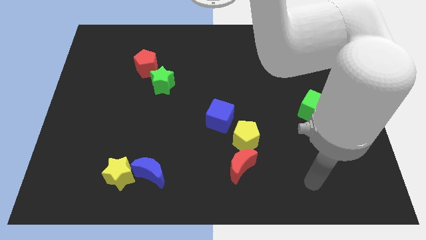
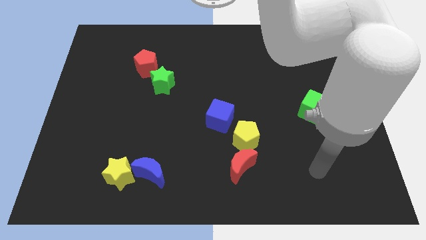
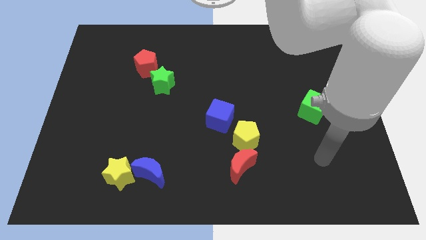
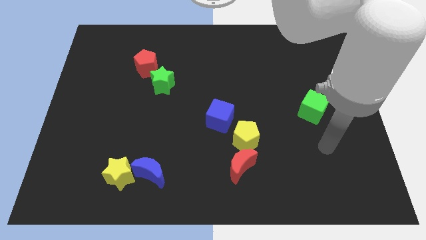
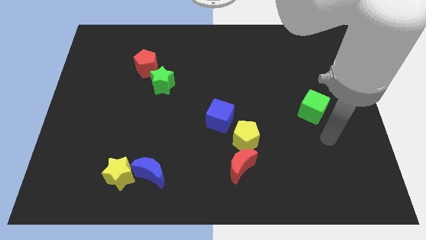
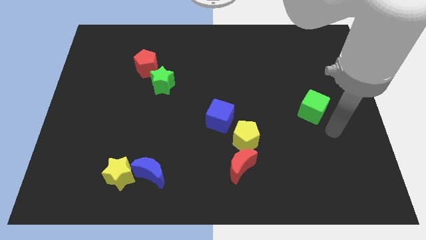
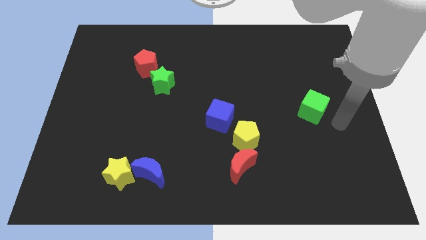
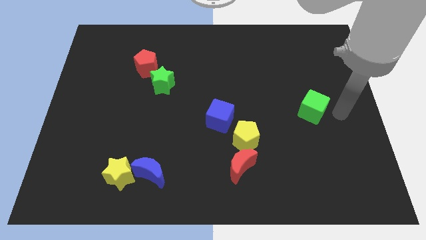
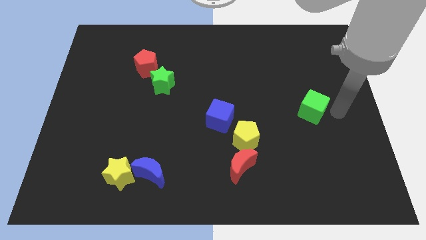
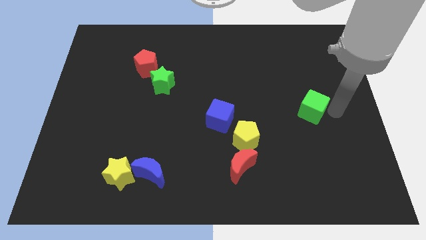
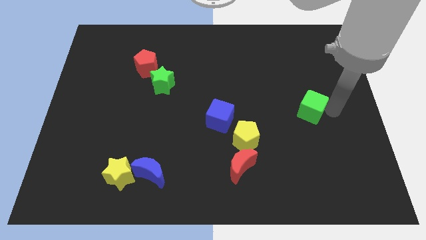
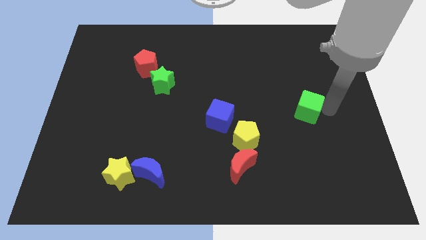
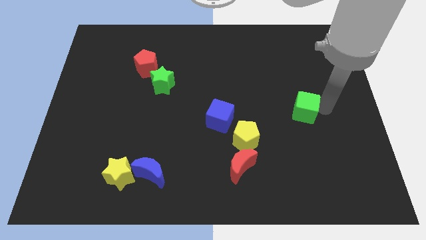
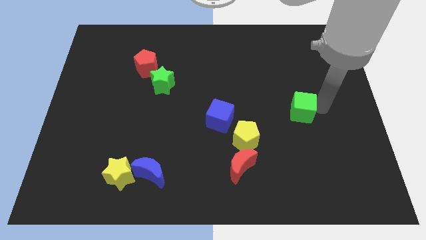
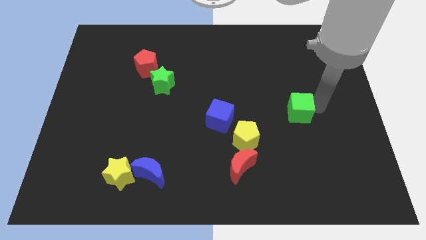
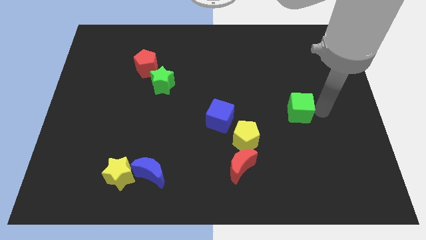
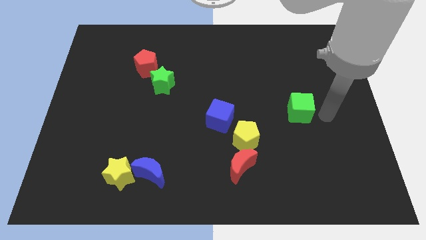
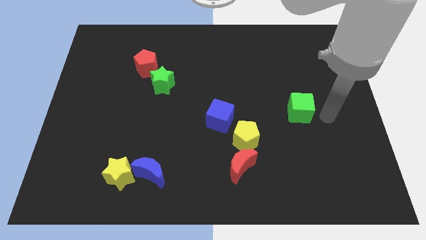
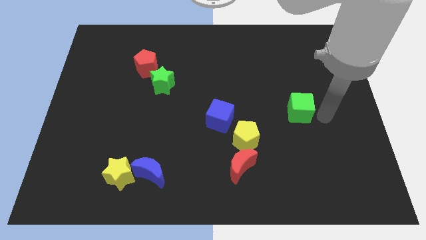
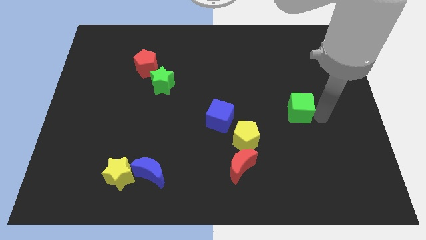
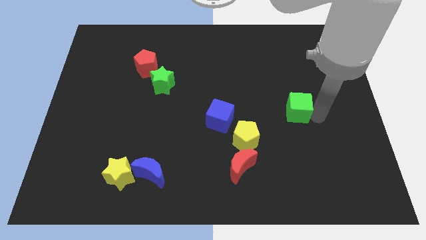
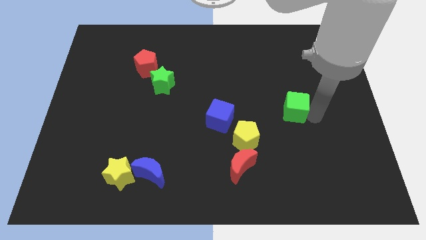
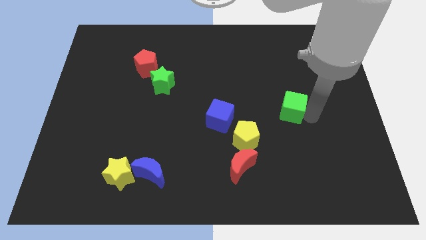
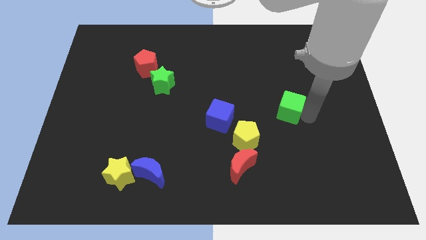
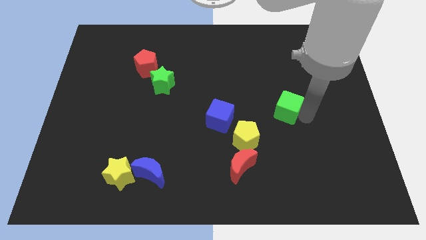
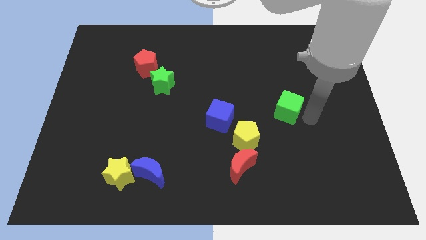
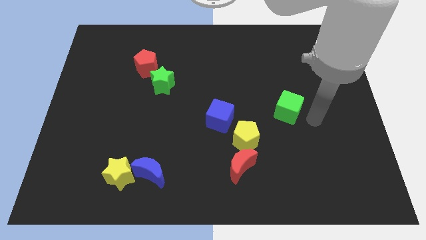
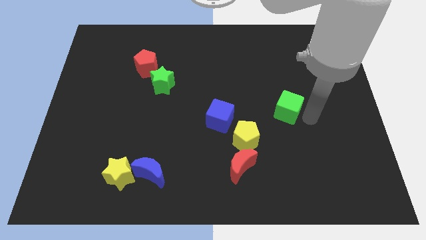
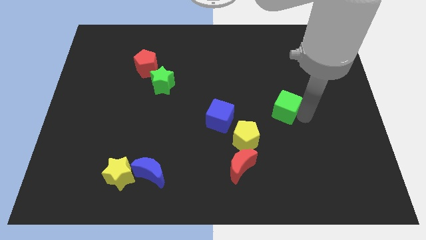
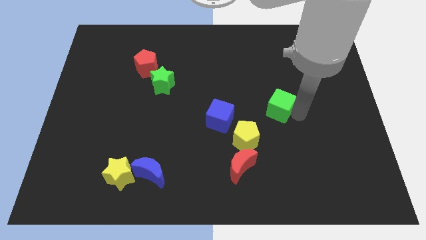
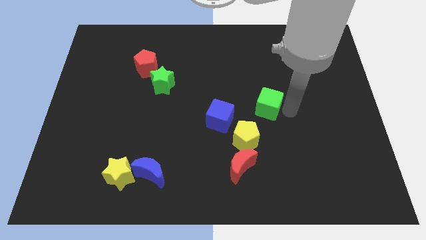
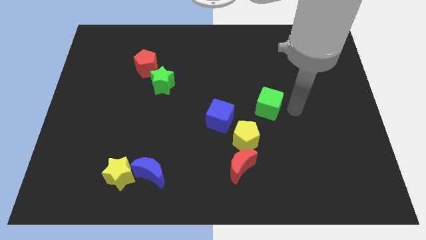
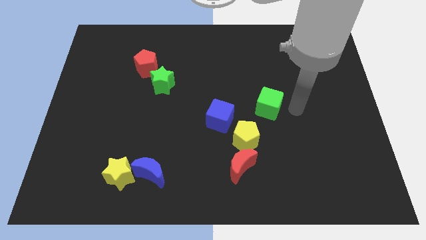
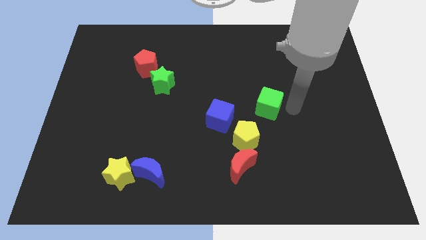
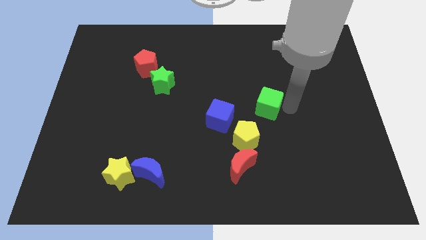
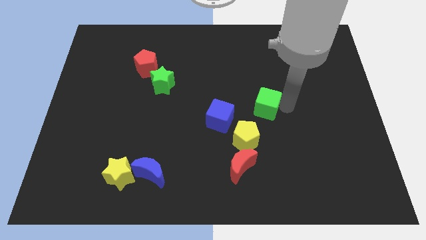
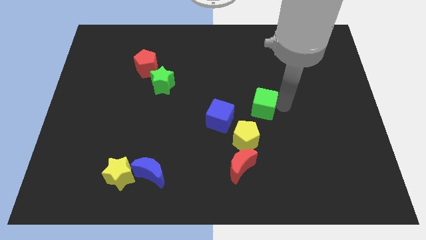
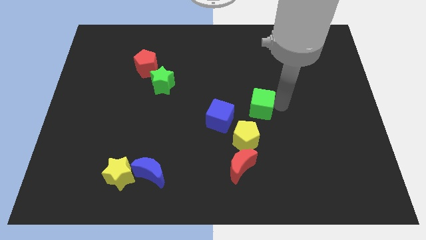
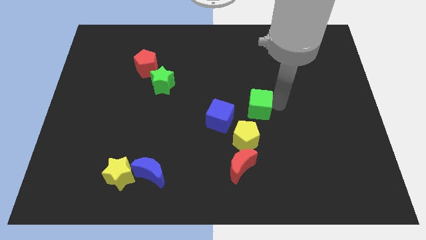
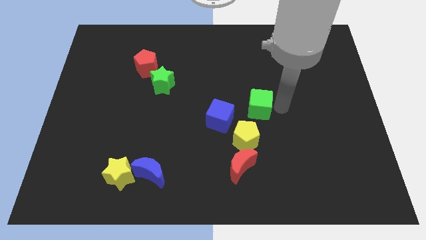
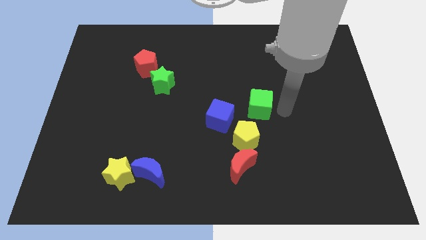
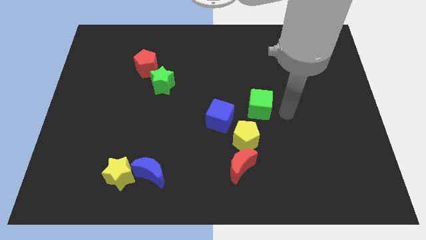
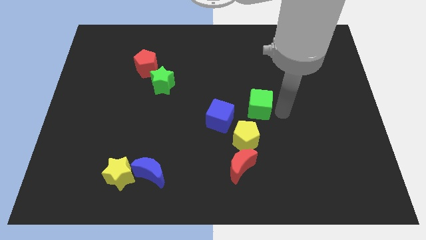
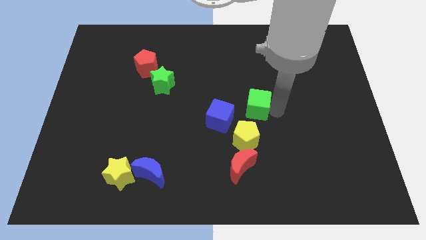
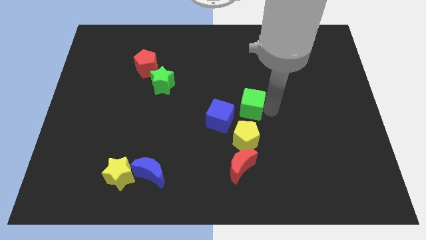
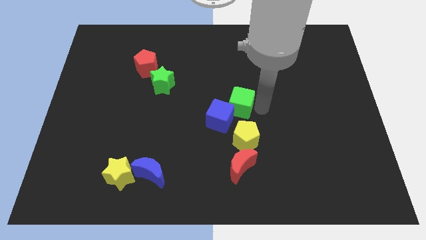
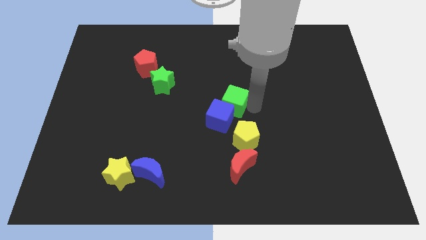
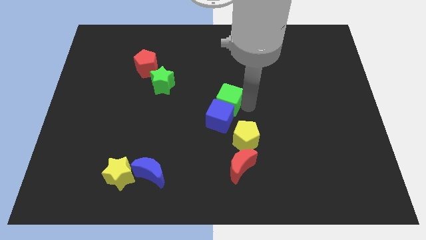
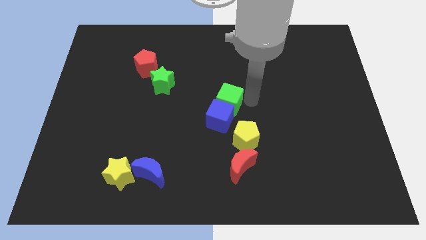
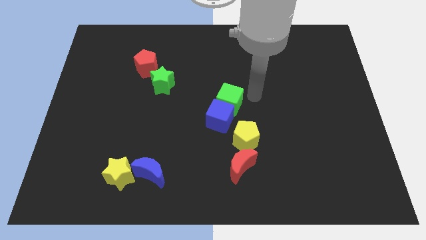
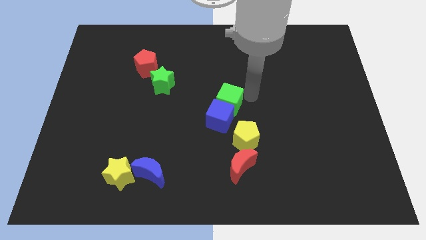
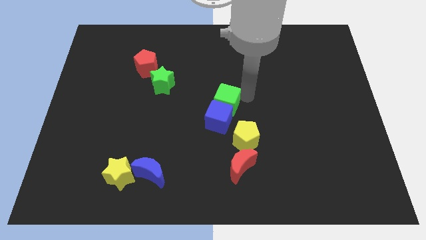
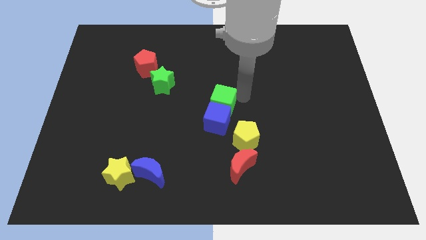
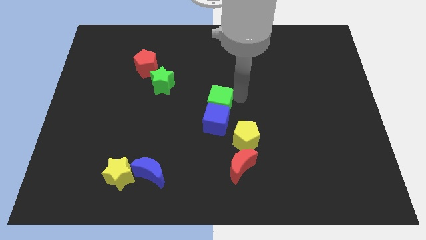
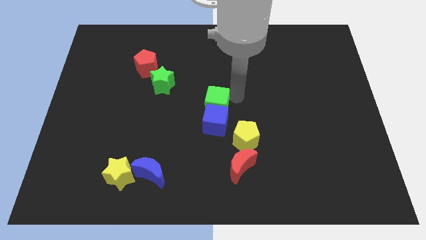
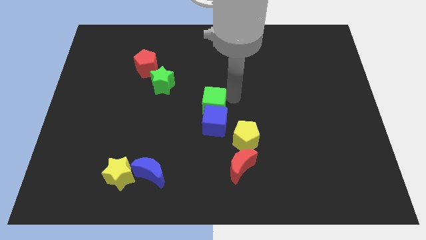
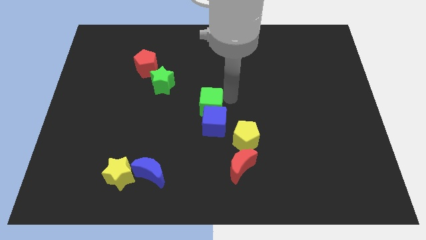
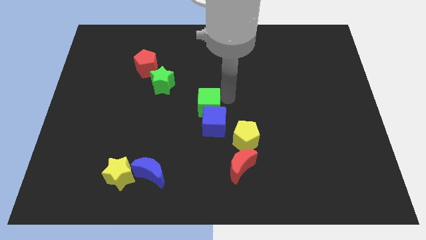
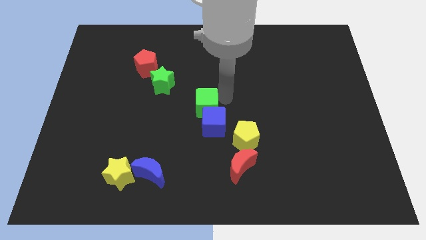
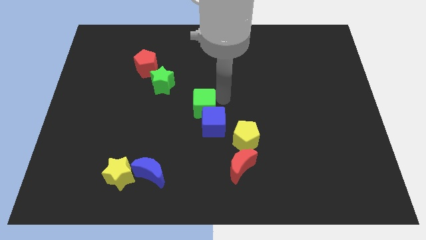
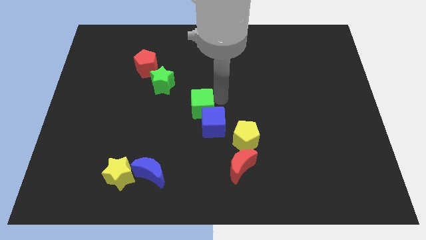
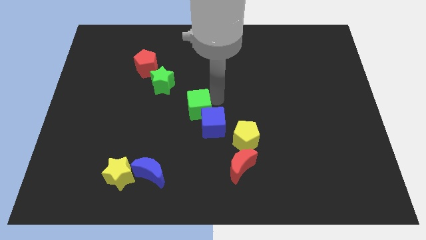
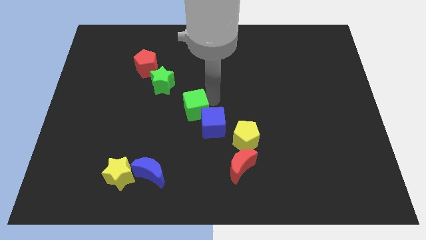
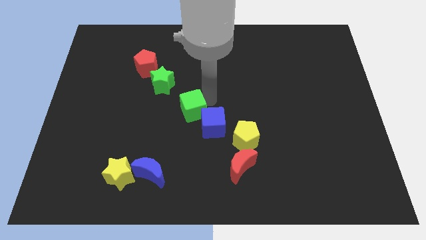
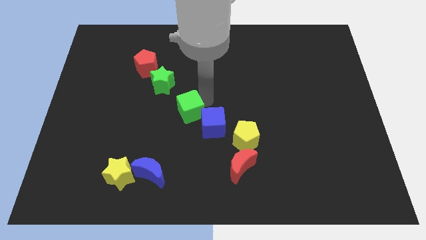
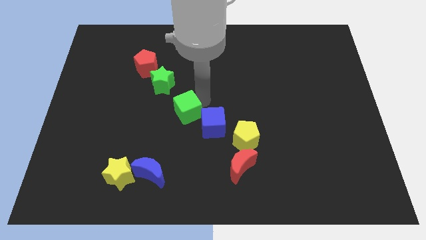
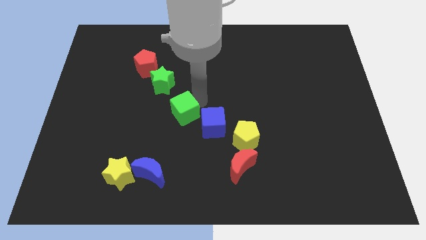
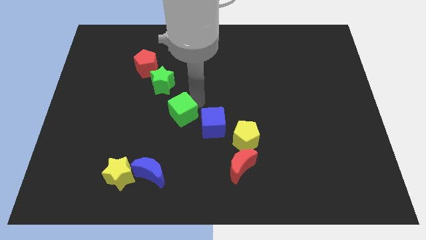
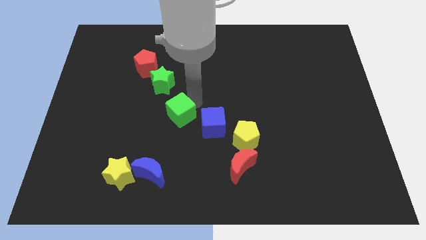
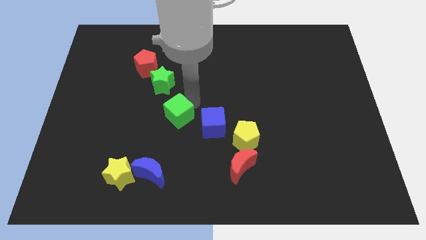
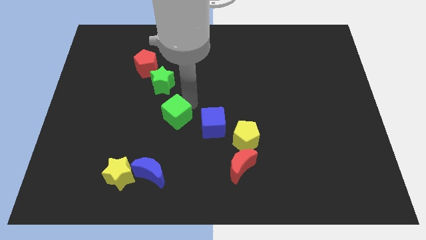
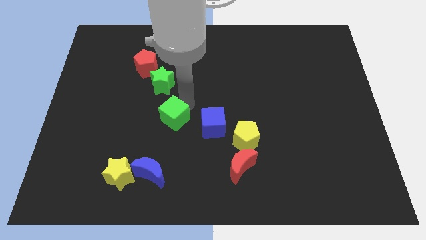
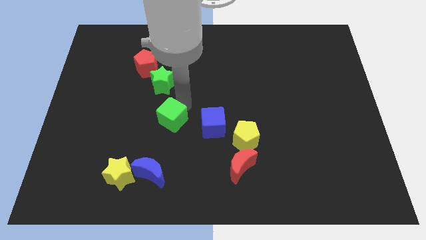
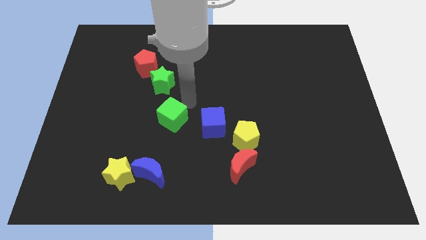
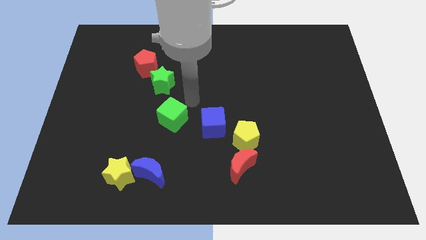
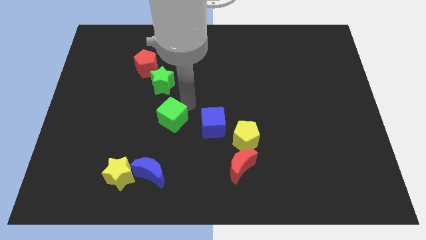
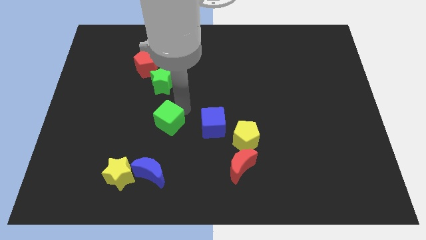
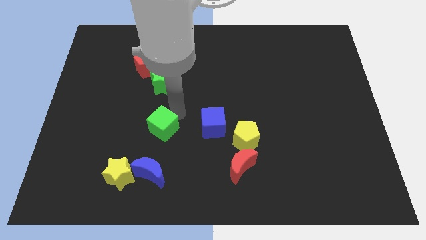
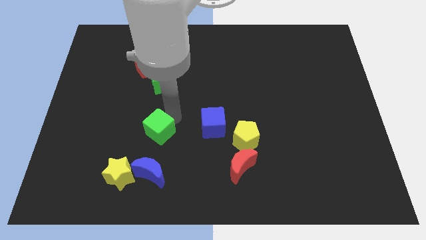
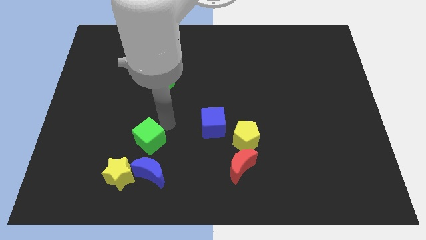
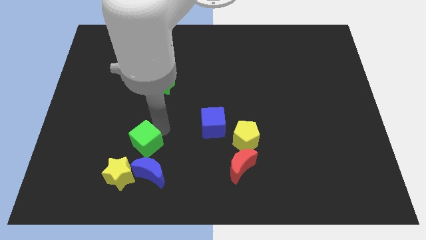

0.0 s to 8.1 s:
put the green cube to the top left of the blue moon
